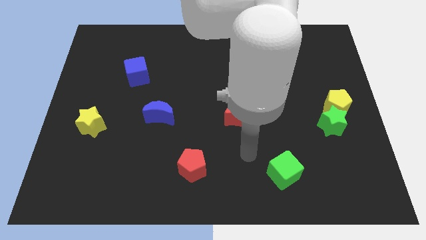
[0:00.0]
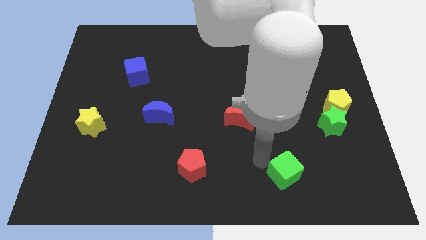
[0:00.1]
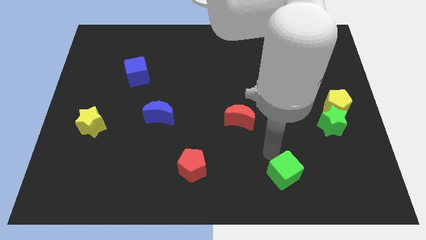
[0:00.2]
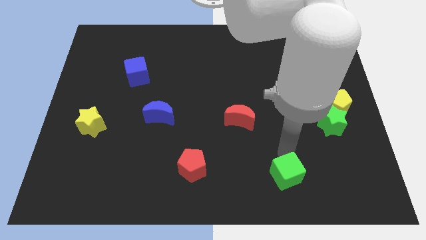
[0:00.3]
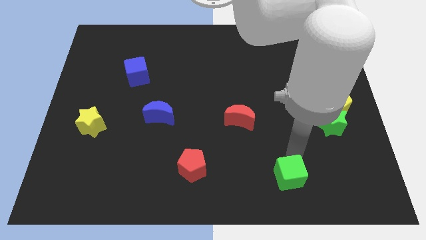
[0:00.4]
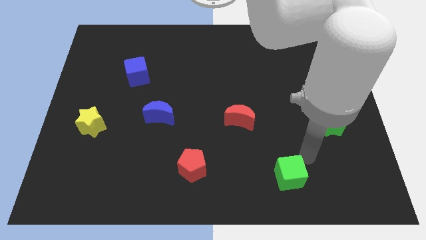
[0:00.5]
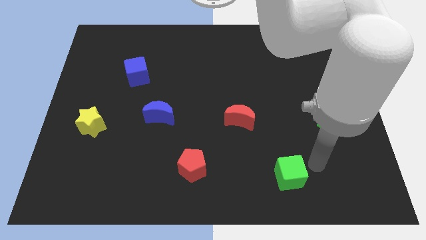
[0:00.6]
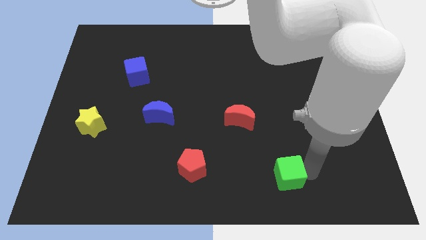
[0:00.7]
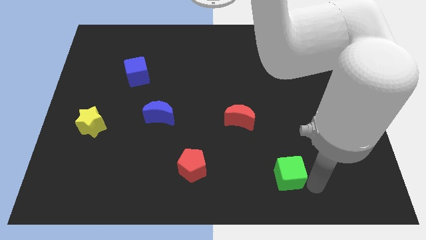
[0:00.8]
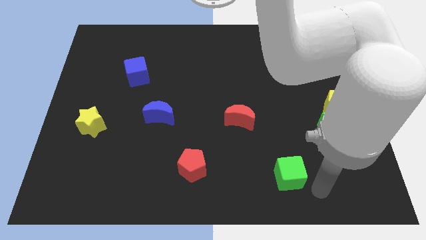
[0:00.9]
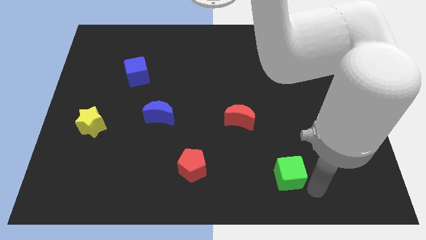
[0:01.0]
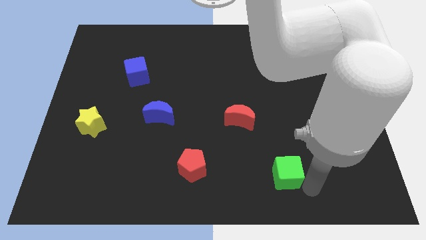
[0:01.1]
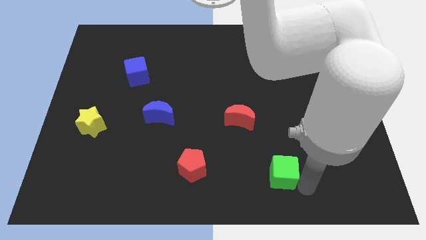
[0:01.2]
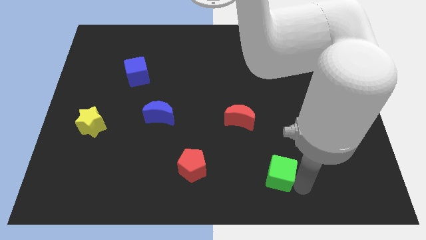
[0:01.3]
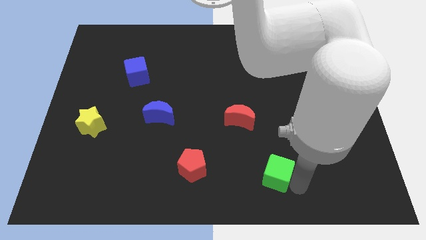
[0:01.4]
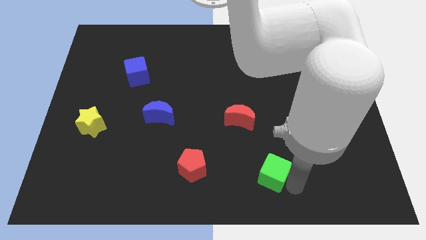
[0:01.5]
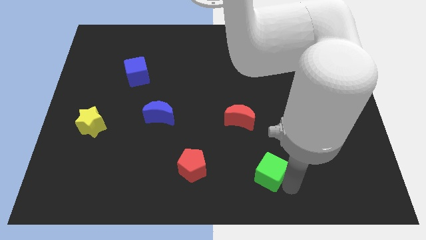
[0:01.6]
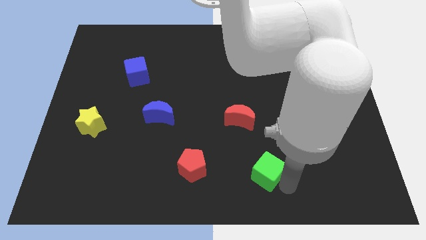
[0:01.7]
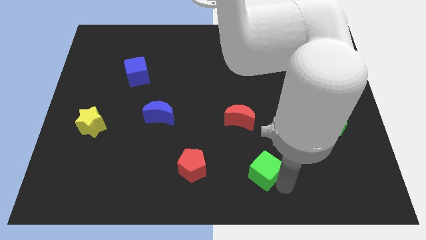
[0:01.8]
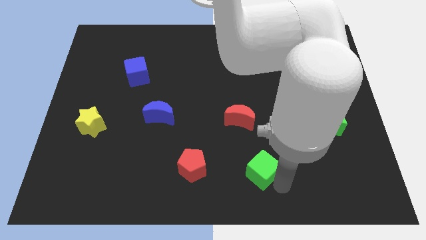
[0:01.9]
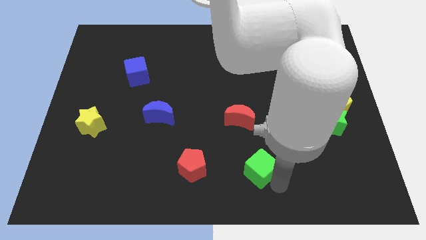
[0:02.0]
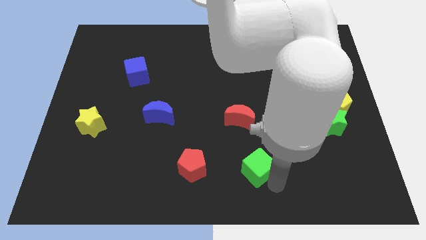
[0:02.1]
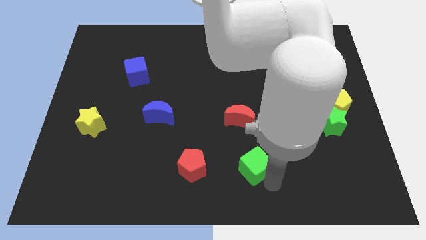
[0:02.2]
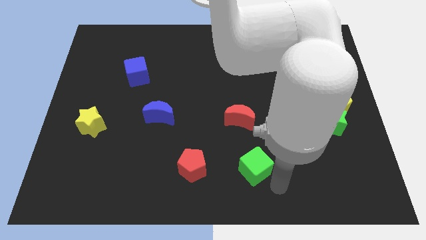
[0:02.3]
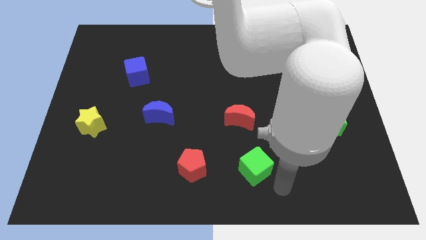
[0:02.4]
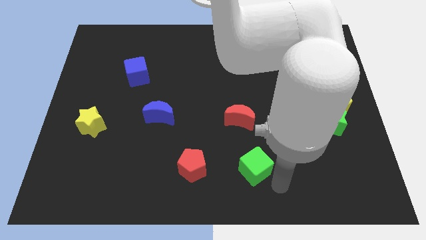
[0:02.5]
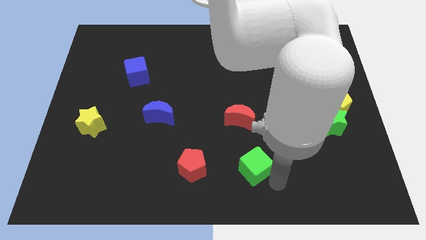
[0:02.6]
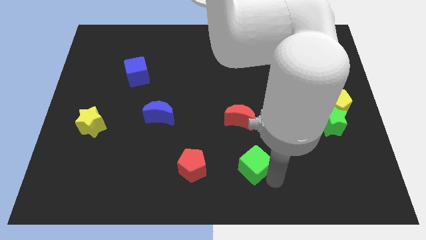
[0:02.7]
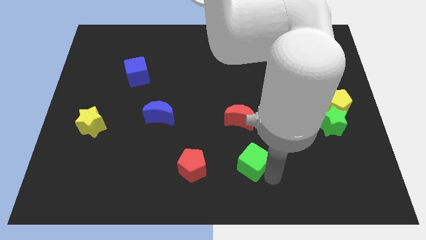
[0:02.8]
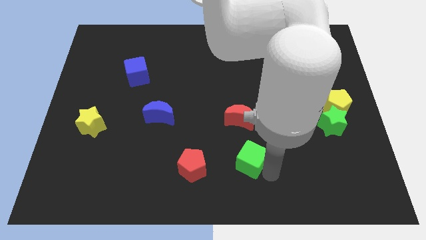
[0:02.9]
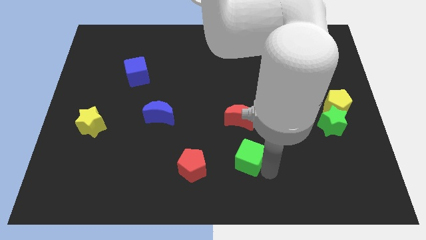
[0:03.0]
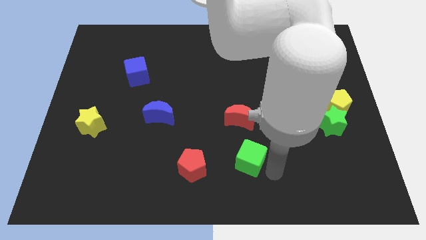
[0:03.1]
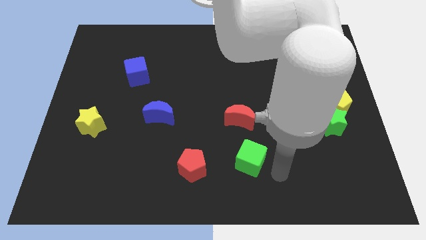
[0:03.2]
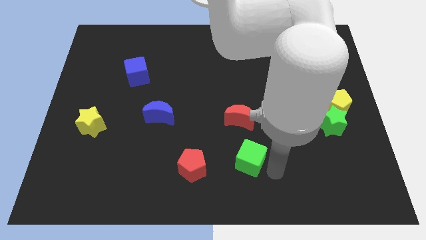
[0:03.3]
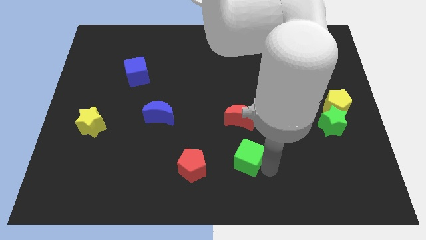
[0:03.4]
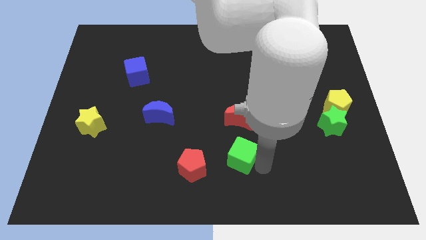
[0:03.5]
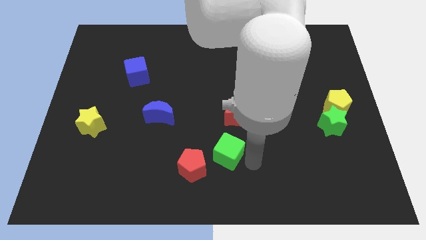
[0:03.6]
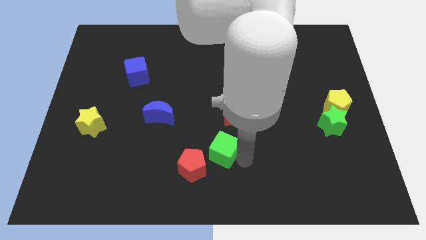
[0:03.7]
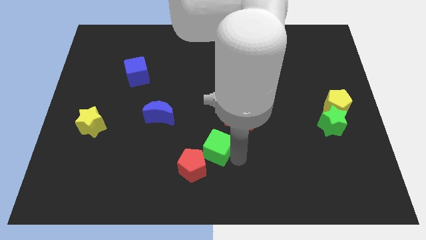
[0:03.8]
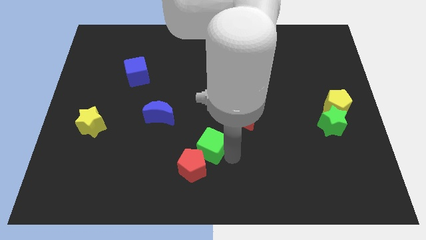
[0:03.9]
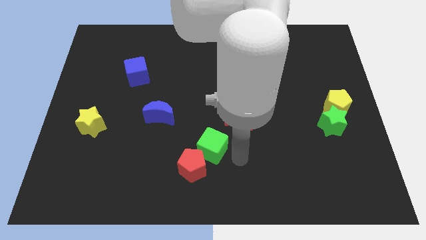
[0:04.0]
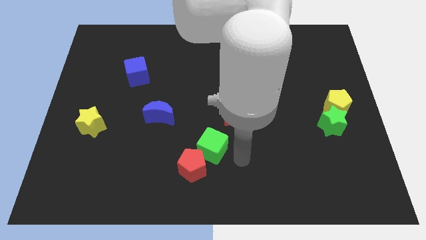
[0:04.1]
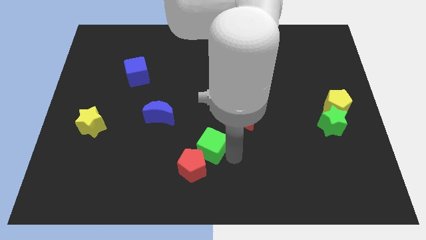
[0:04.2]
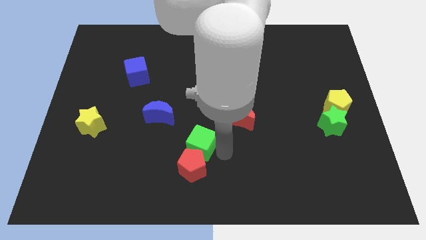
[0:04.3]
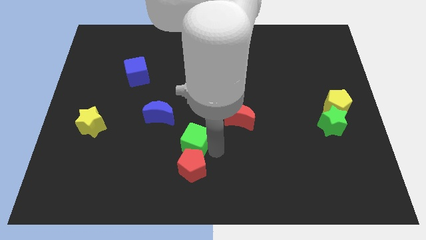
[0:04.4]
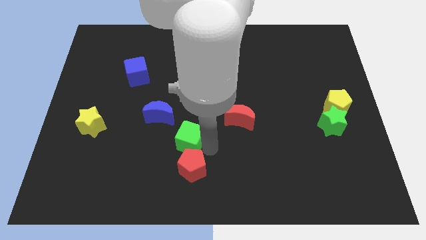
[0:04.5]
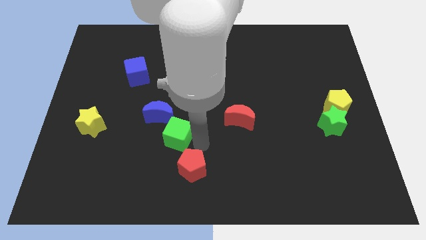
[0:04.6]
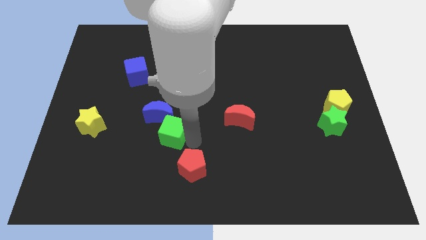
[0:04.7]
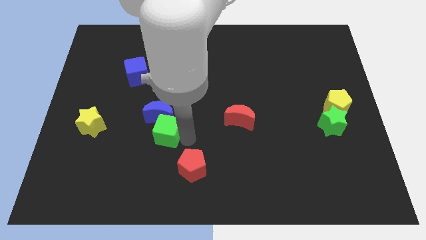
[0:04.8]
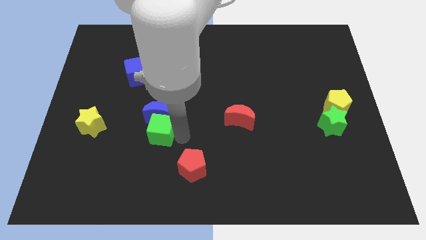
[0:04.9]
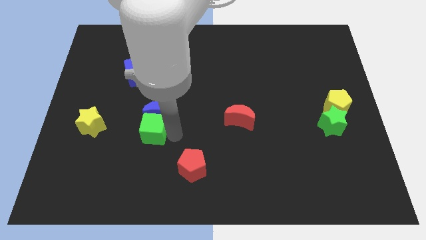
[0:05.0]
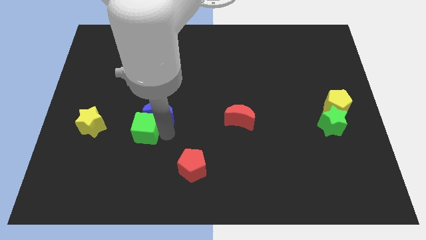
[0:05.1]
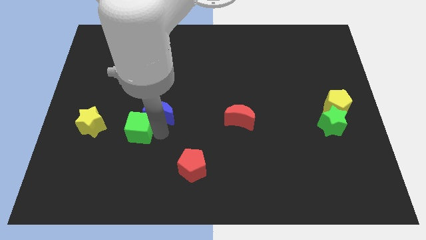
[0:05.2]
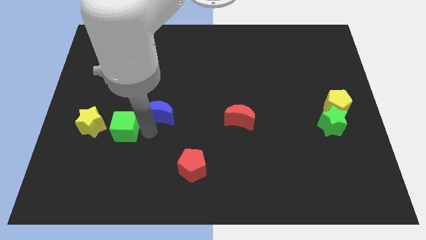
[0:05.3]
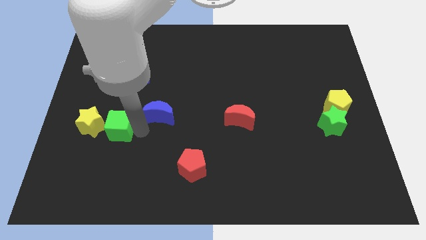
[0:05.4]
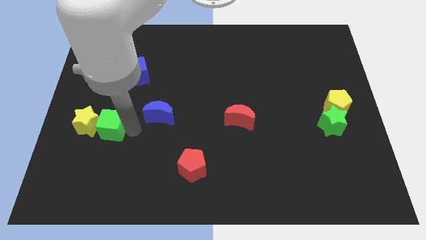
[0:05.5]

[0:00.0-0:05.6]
move the green cube next to the yellow star

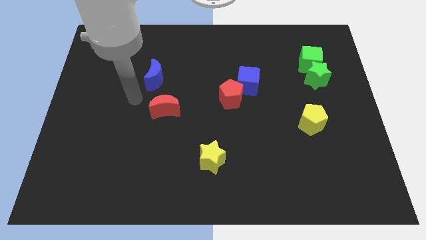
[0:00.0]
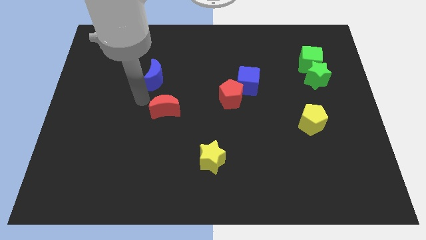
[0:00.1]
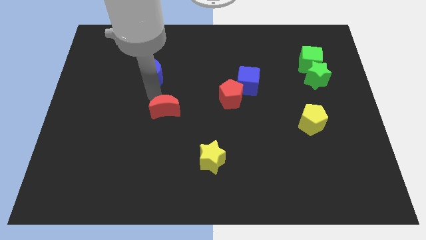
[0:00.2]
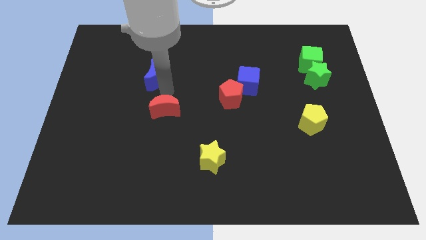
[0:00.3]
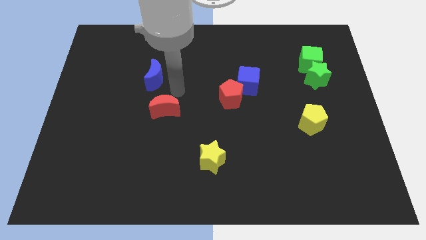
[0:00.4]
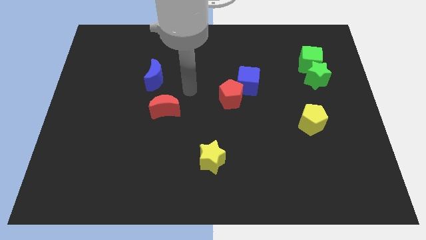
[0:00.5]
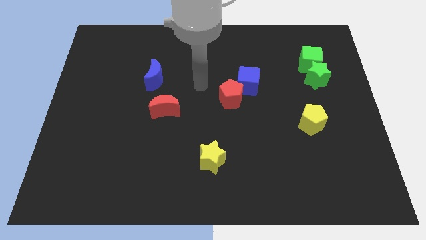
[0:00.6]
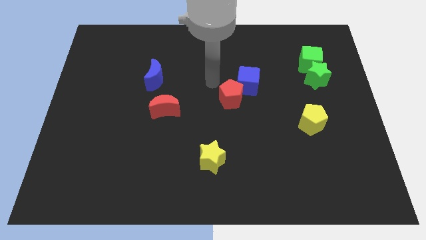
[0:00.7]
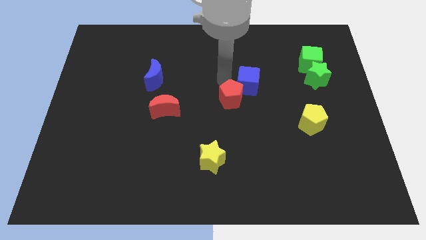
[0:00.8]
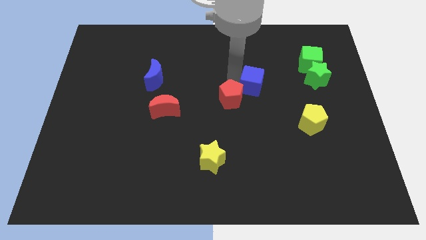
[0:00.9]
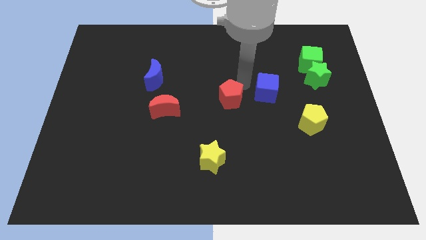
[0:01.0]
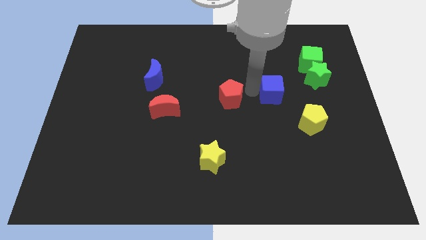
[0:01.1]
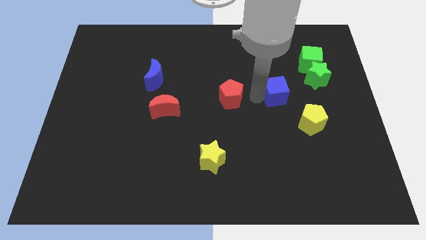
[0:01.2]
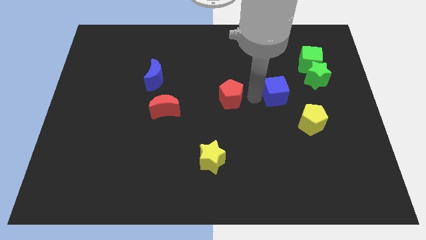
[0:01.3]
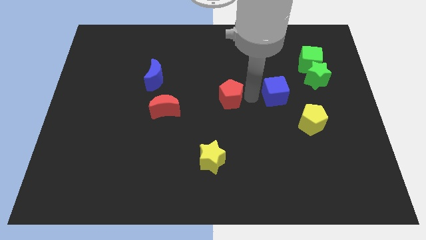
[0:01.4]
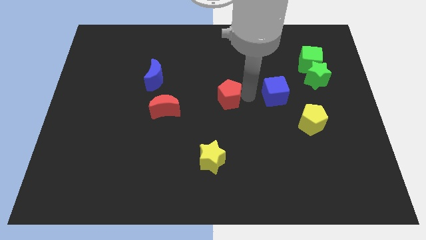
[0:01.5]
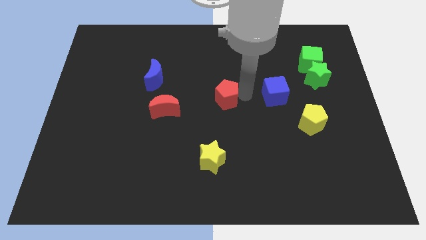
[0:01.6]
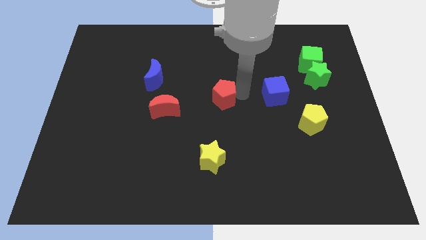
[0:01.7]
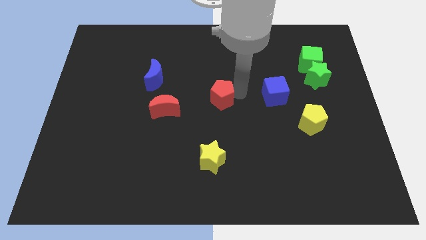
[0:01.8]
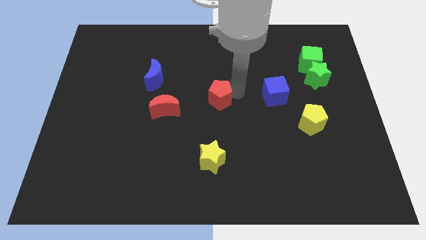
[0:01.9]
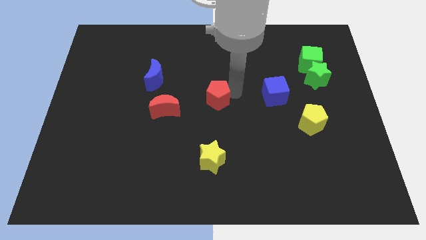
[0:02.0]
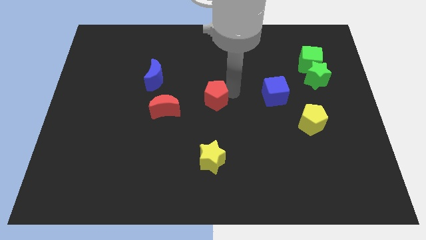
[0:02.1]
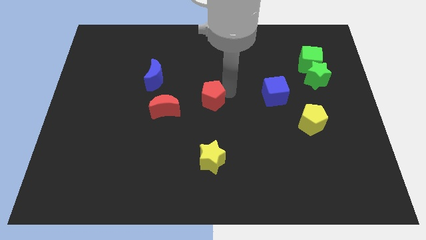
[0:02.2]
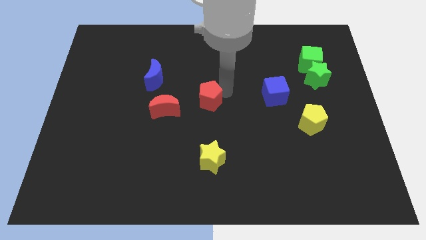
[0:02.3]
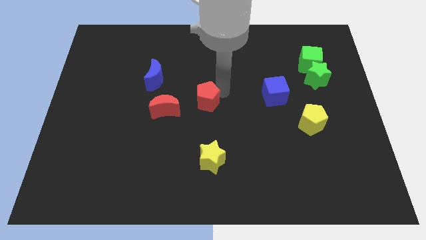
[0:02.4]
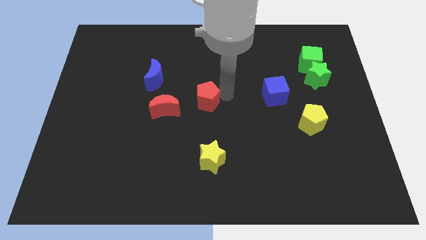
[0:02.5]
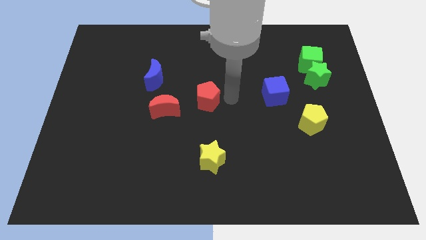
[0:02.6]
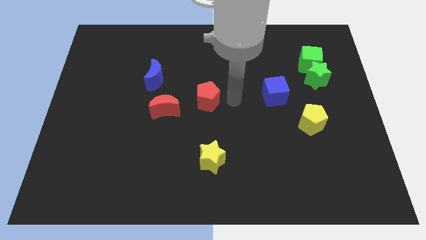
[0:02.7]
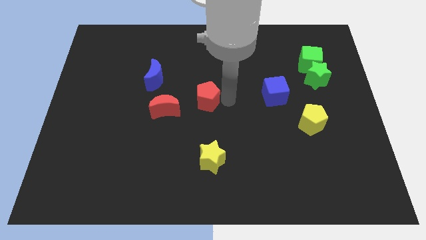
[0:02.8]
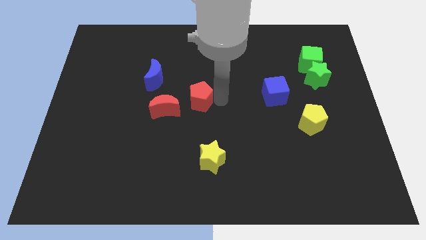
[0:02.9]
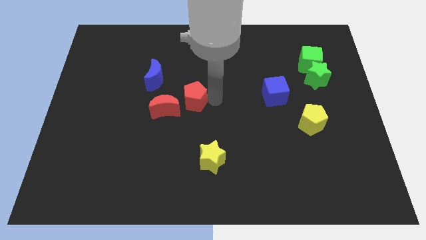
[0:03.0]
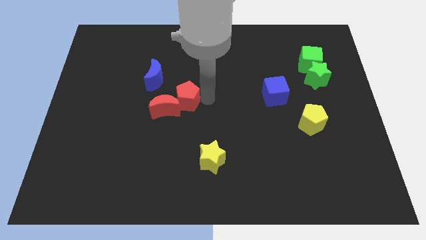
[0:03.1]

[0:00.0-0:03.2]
move the red pentagon towards the red moon
